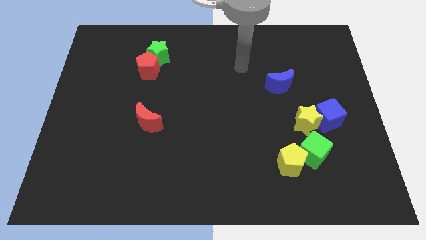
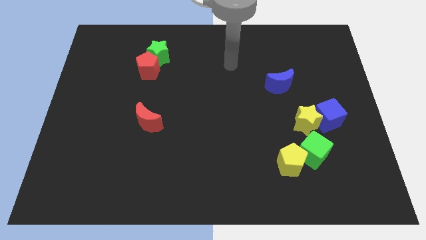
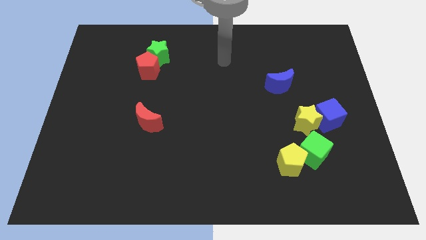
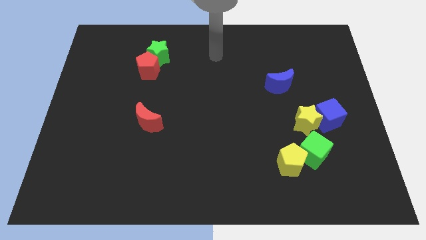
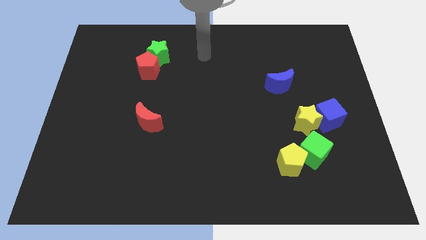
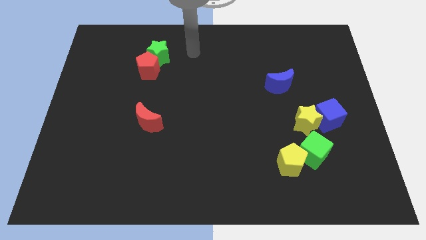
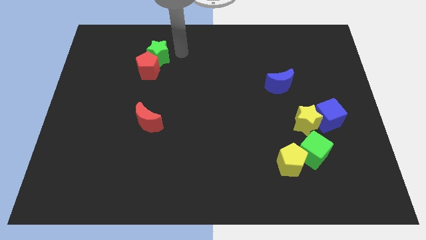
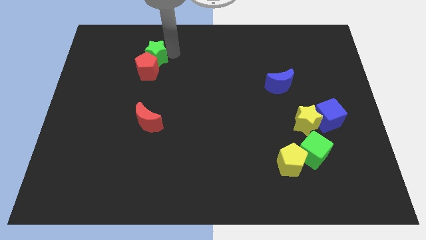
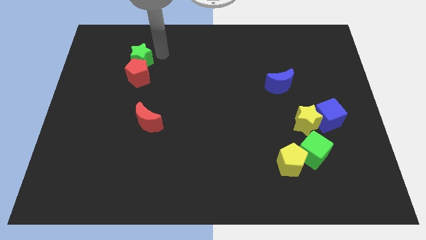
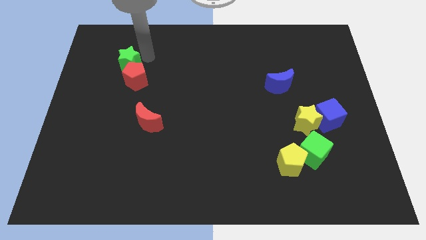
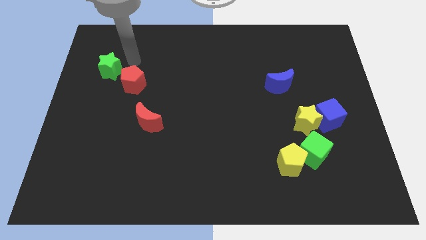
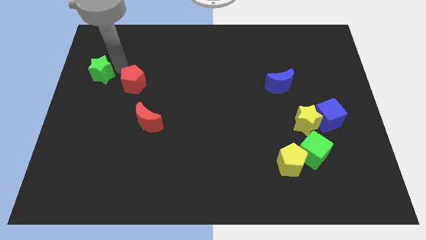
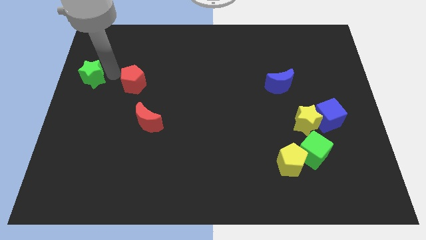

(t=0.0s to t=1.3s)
separate the red pentagon from the green star

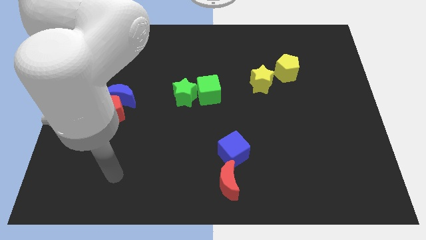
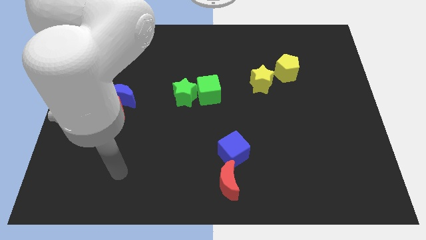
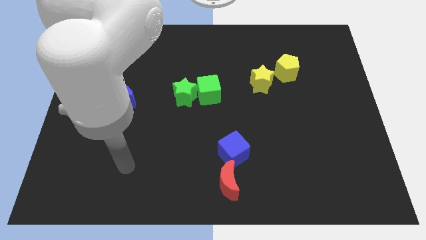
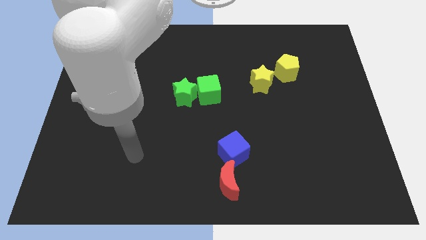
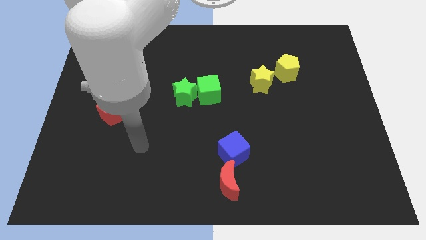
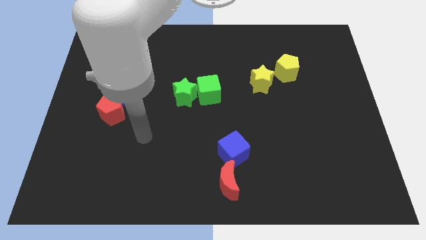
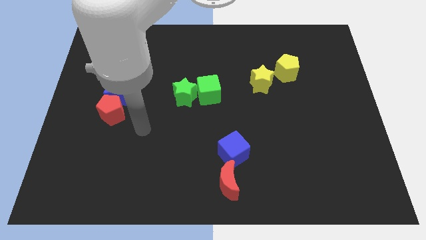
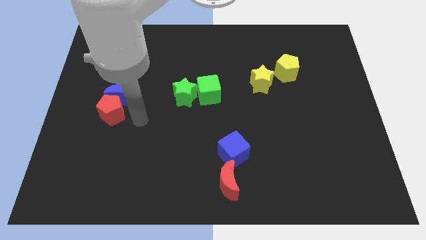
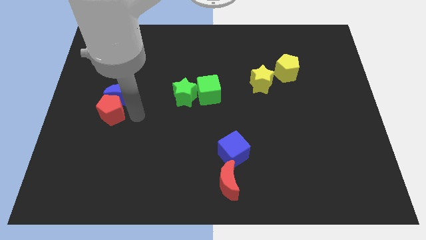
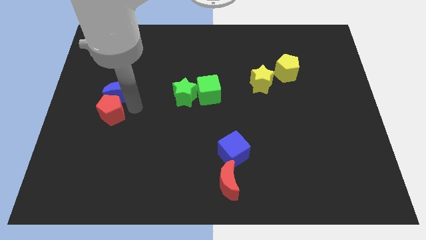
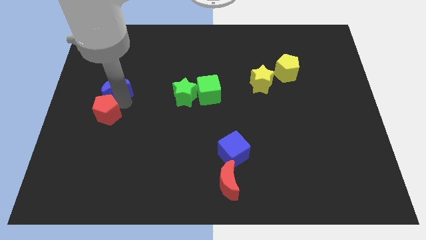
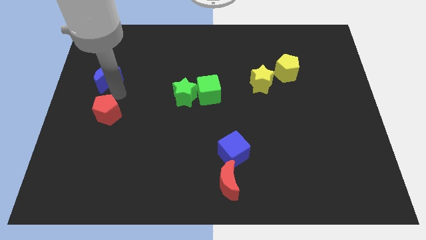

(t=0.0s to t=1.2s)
separate the red pentagon from the blue moon

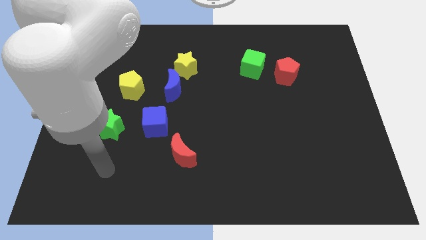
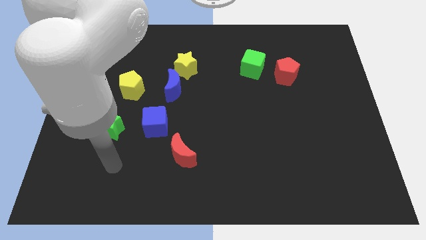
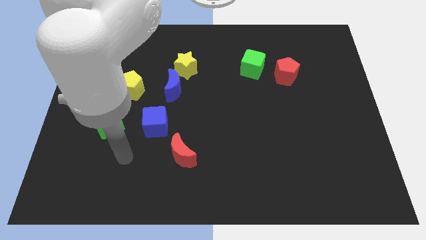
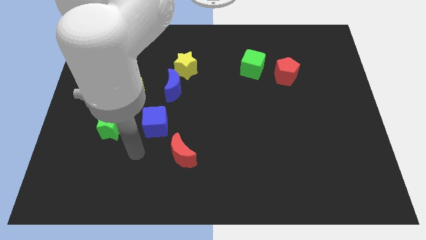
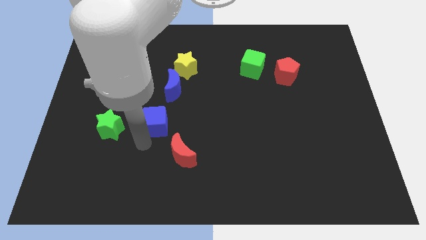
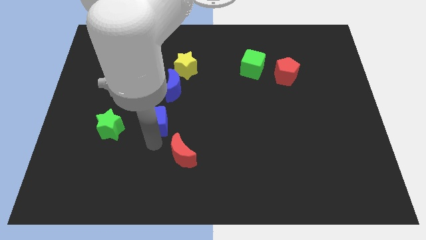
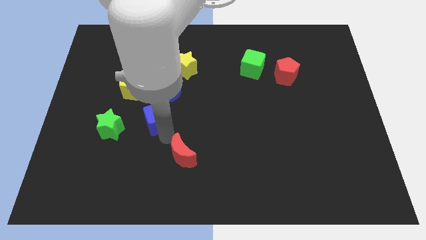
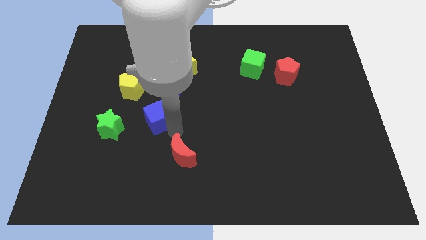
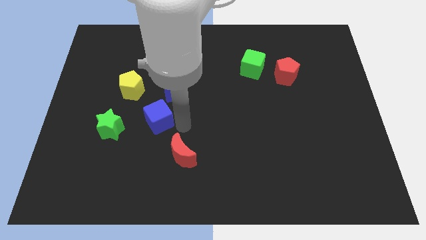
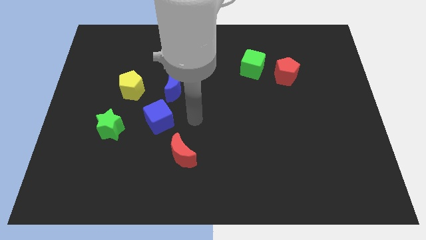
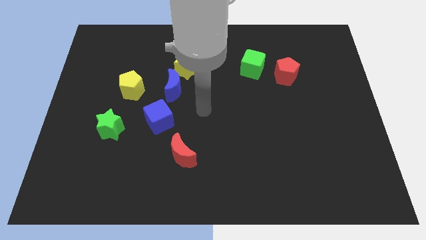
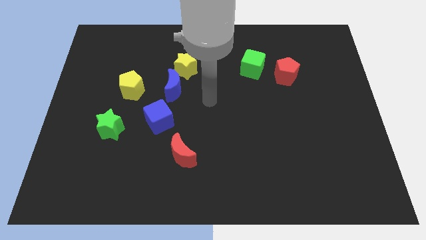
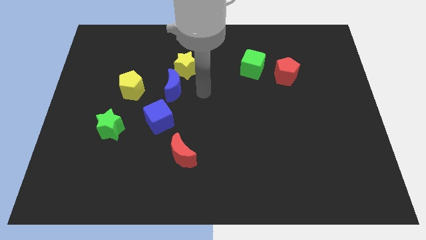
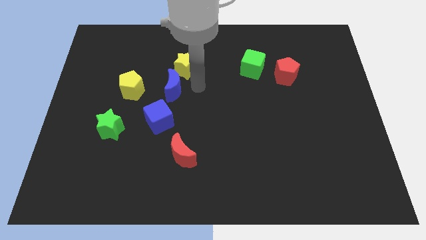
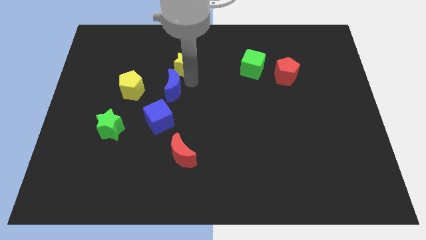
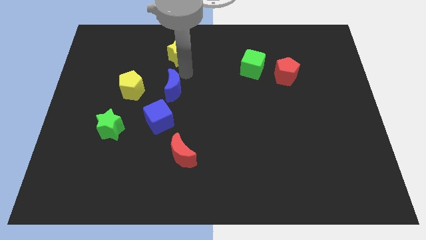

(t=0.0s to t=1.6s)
separate the blue moon from the yellow star

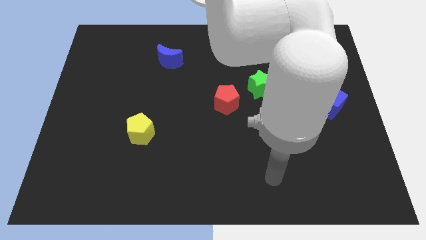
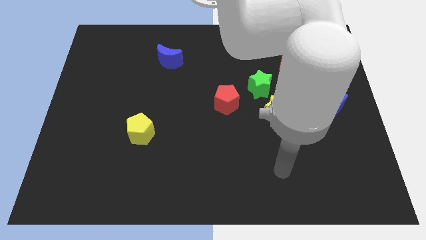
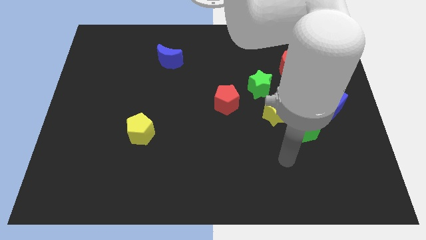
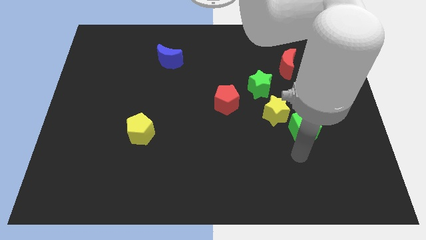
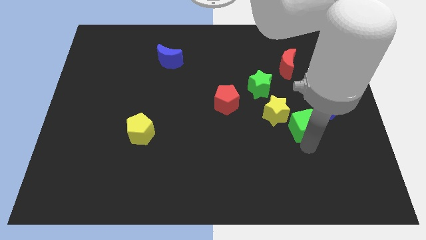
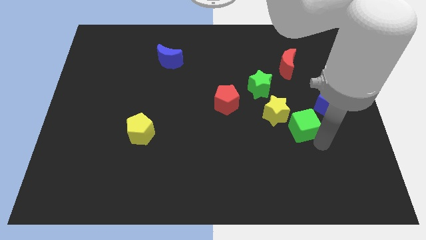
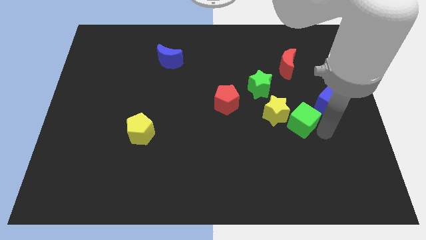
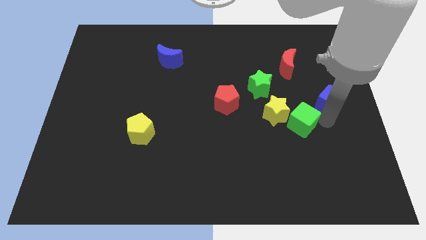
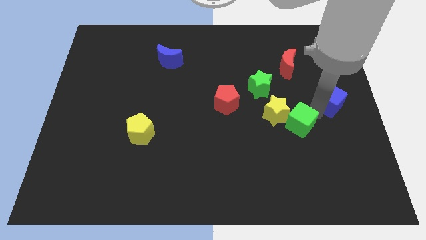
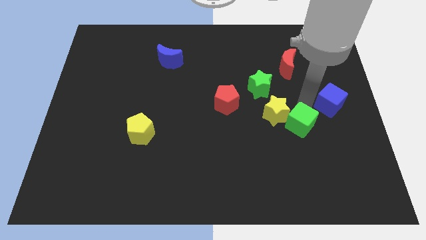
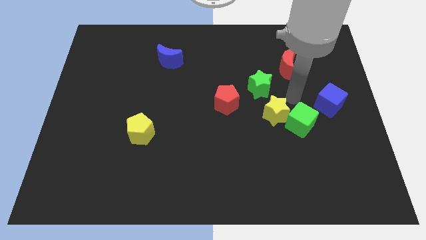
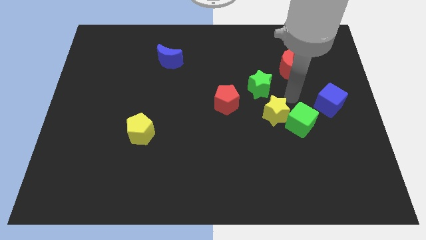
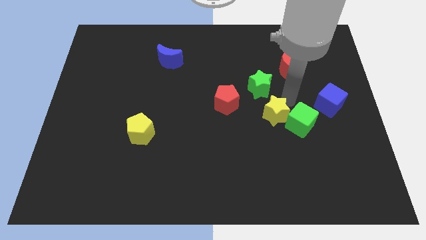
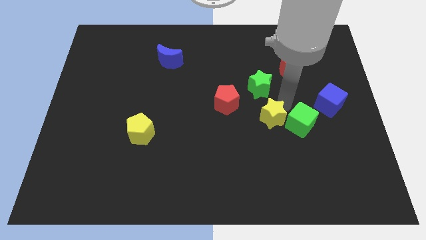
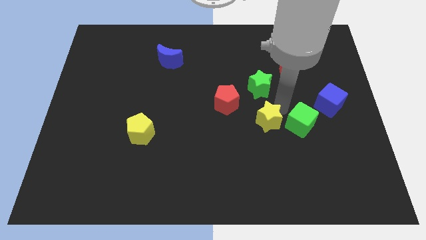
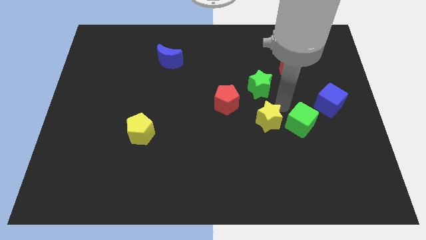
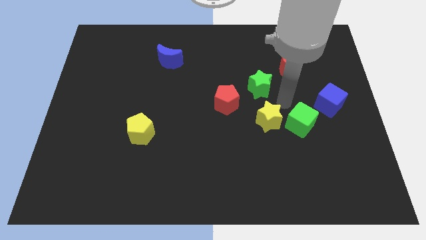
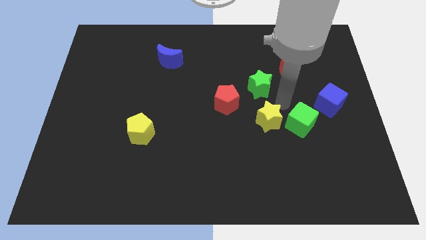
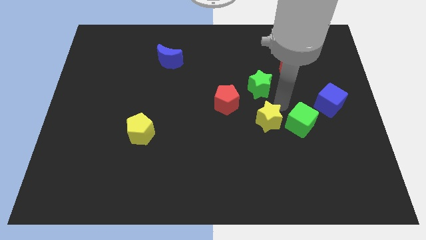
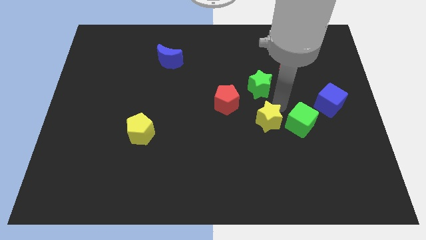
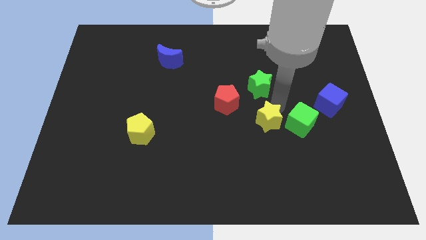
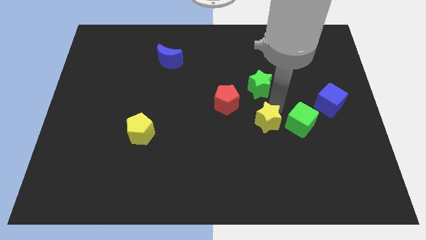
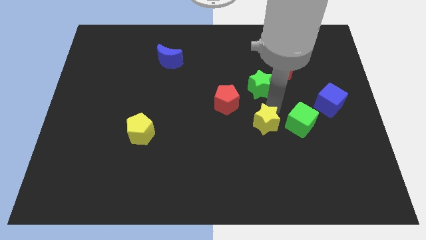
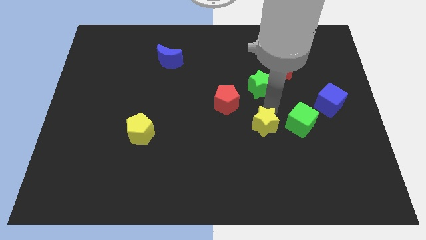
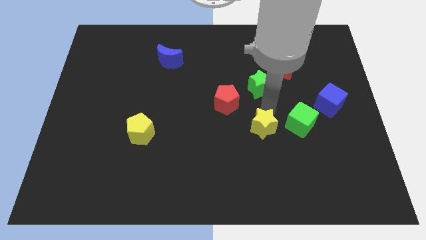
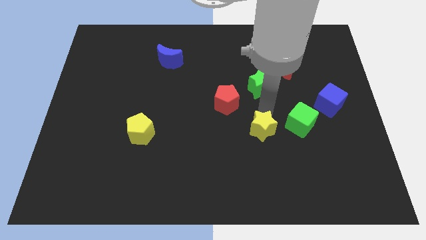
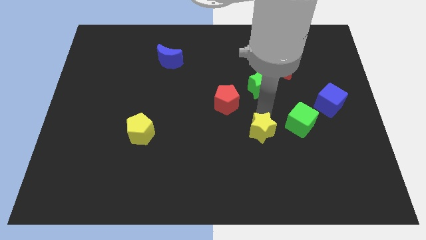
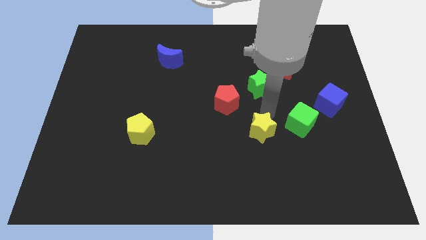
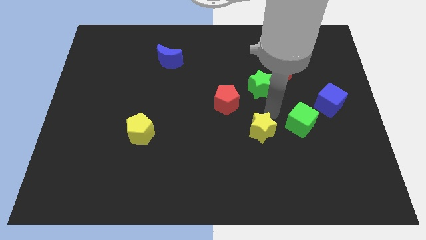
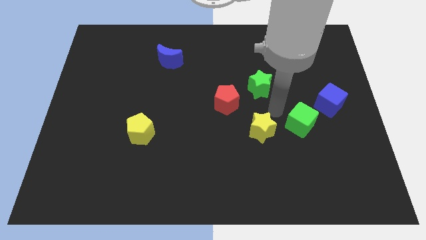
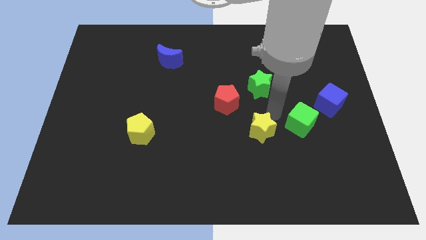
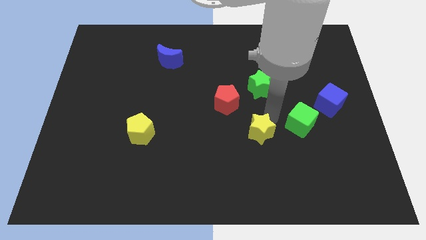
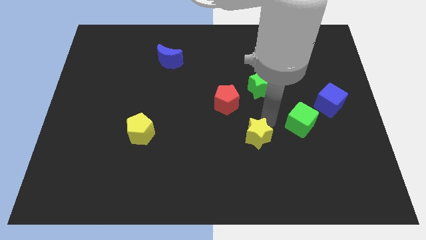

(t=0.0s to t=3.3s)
separate the yellow star from the green cube and green star

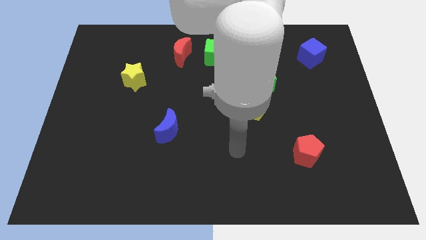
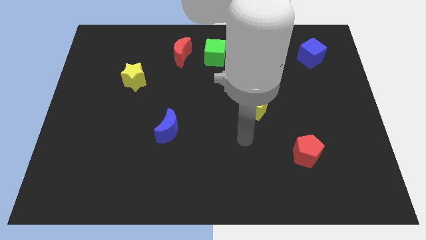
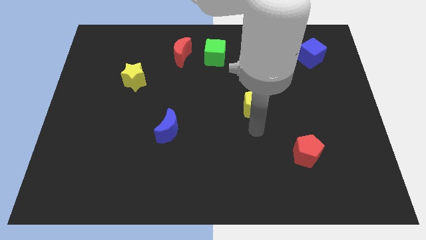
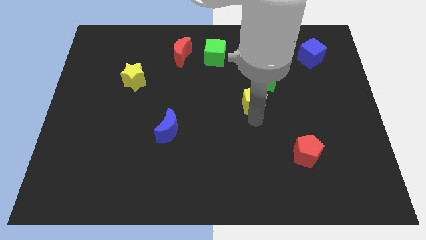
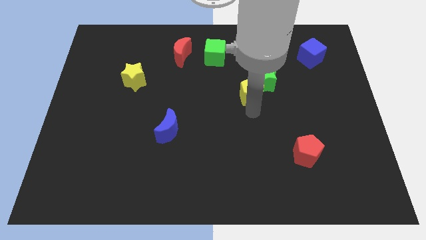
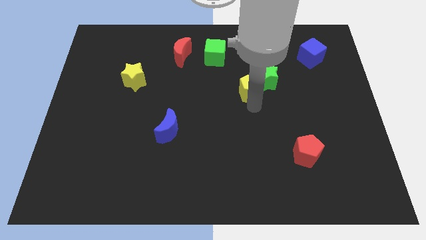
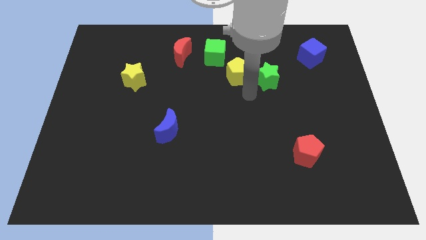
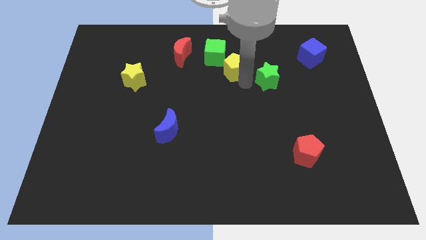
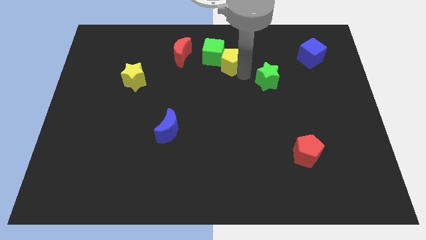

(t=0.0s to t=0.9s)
separate the green star from the yellow pentagon

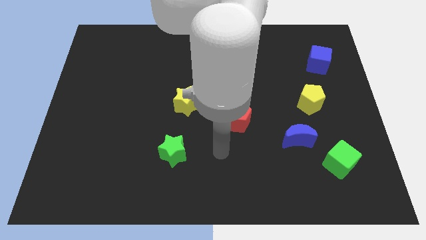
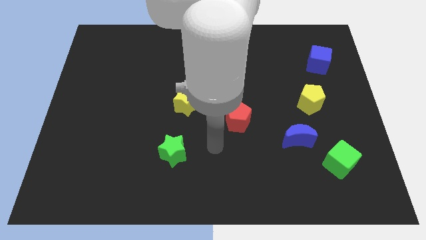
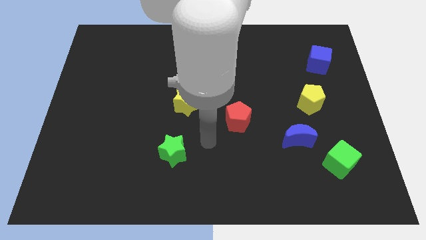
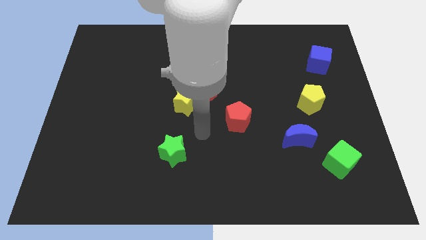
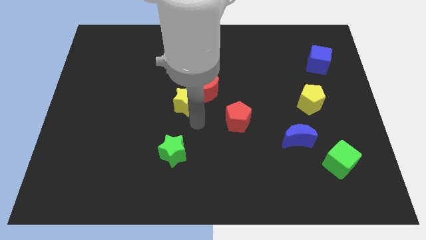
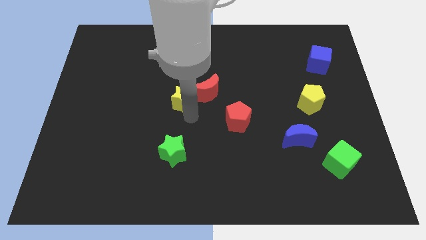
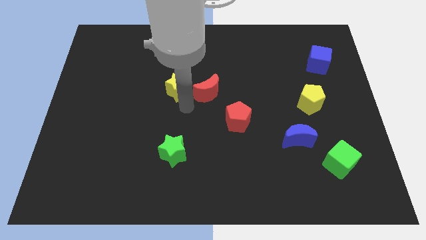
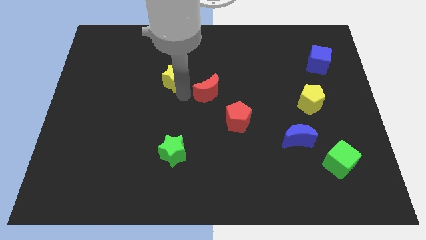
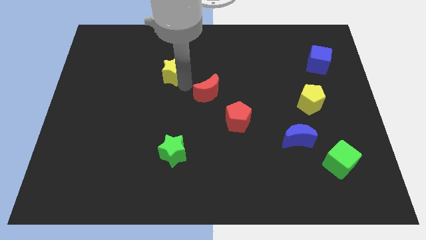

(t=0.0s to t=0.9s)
move the red moon away from the yellow star
